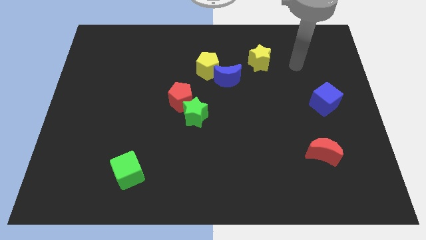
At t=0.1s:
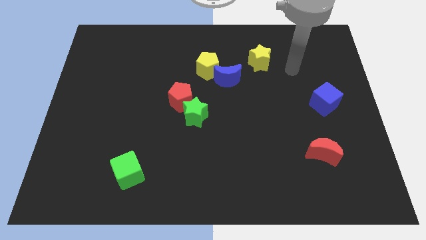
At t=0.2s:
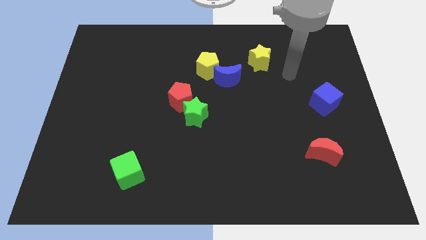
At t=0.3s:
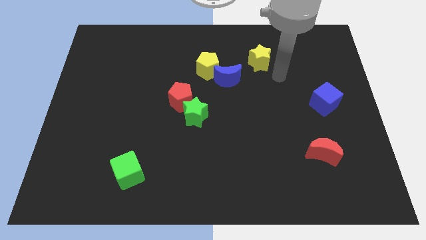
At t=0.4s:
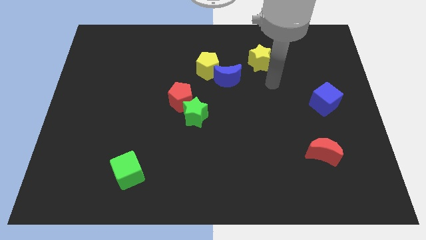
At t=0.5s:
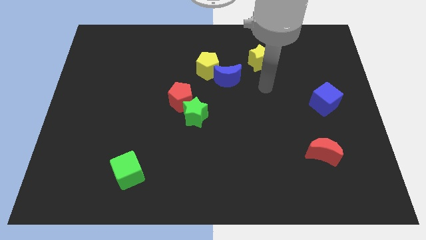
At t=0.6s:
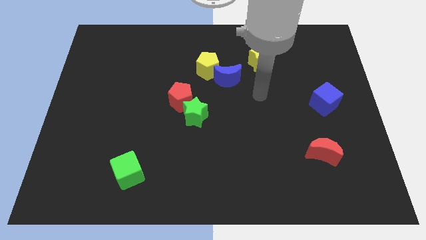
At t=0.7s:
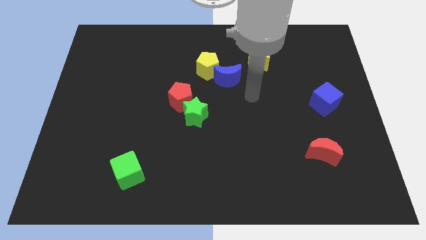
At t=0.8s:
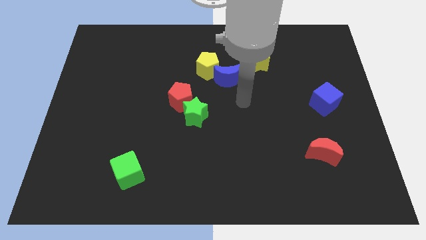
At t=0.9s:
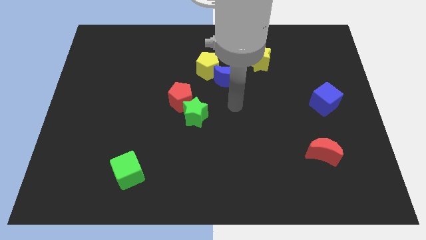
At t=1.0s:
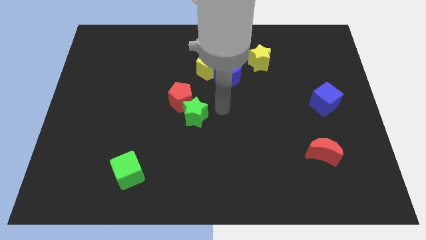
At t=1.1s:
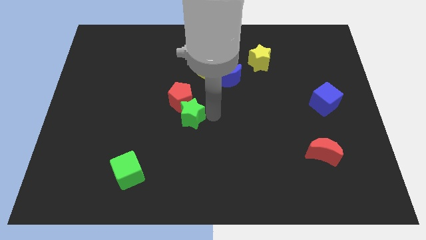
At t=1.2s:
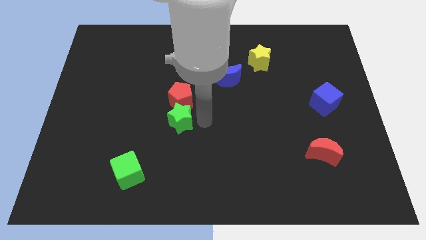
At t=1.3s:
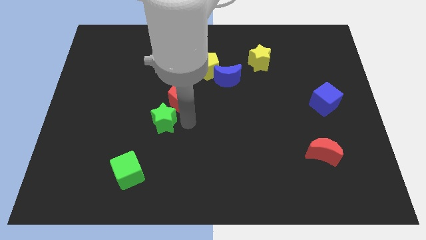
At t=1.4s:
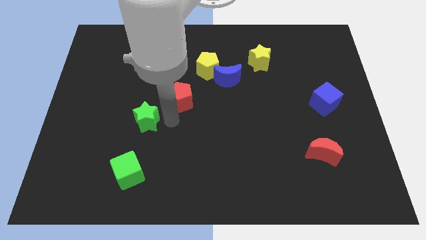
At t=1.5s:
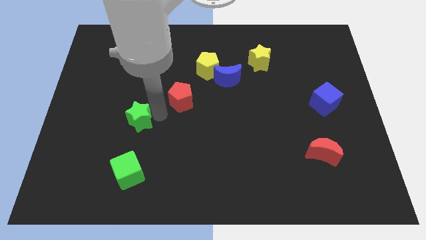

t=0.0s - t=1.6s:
pull the red pentagon apart from the green star

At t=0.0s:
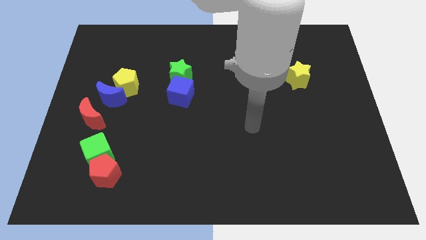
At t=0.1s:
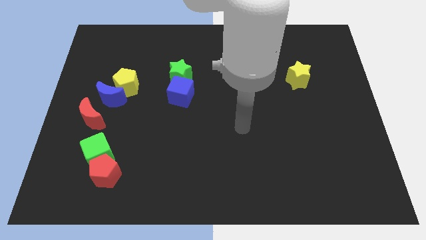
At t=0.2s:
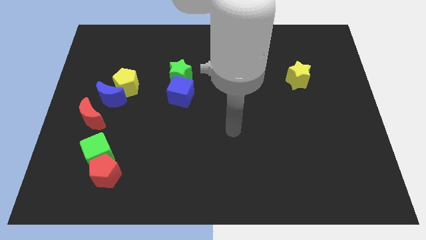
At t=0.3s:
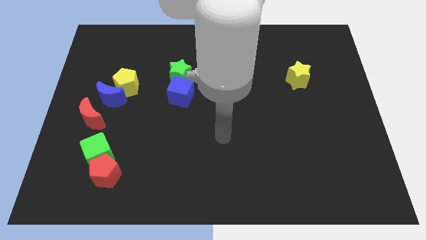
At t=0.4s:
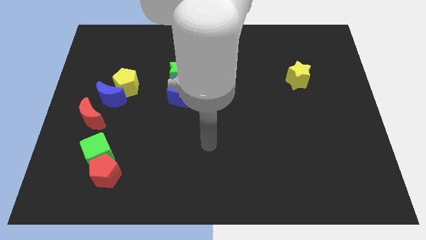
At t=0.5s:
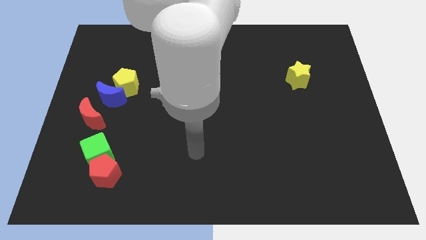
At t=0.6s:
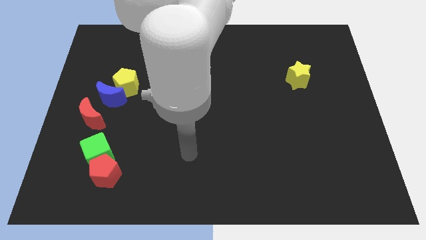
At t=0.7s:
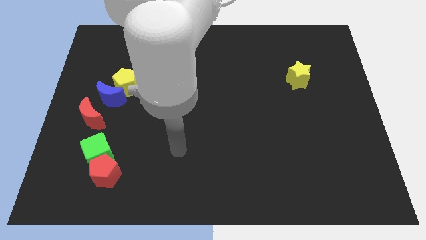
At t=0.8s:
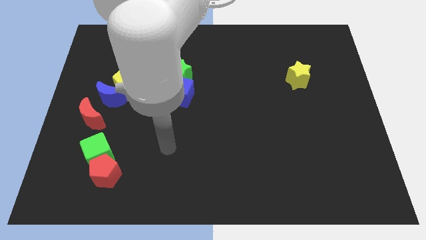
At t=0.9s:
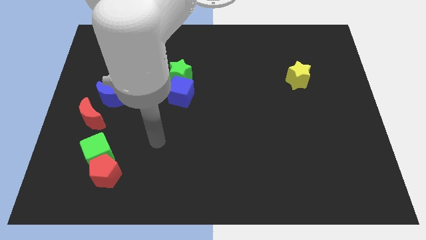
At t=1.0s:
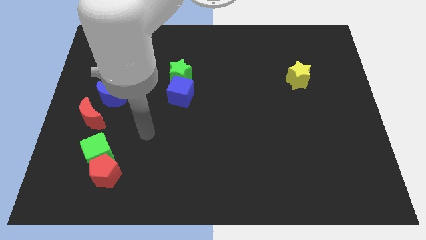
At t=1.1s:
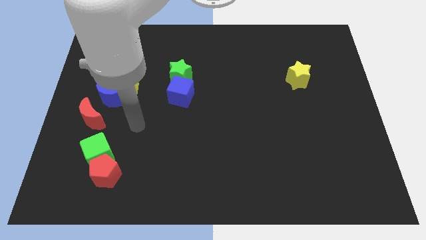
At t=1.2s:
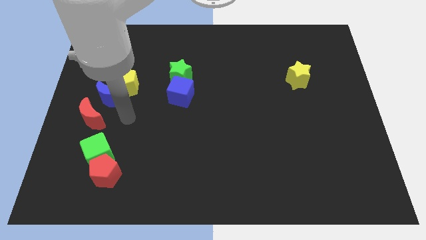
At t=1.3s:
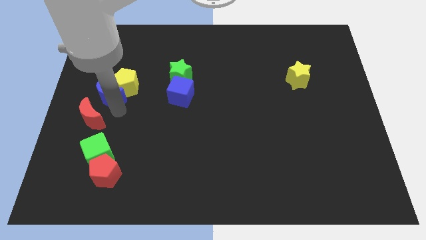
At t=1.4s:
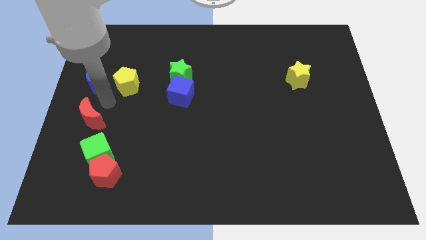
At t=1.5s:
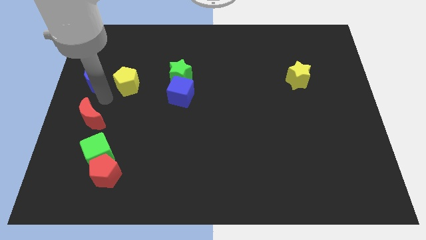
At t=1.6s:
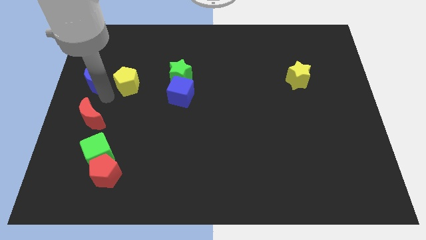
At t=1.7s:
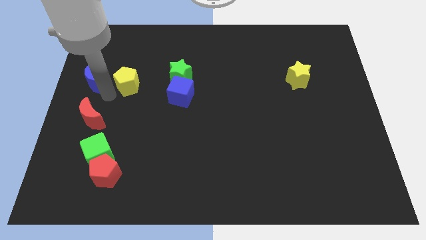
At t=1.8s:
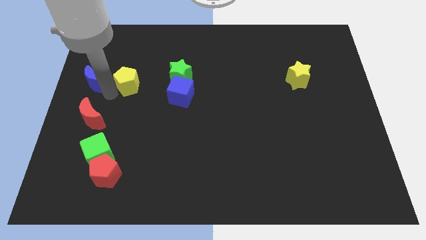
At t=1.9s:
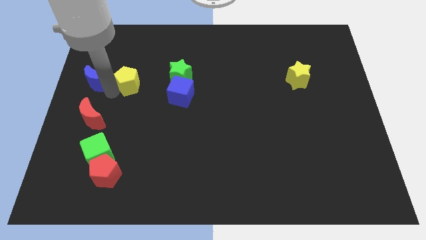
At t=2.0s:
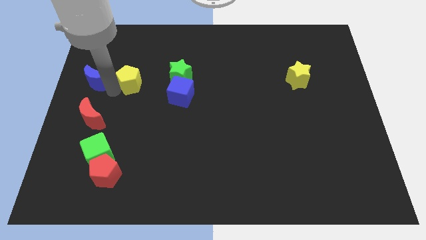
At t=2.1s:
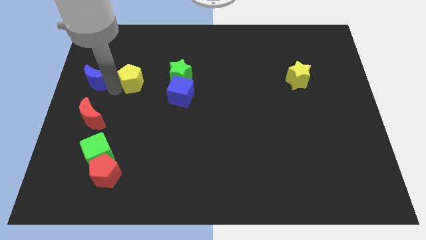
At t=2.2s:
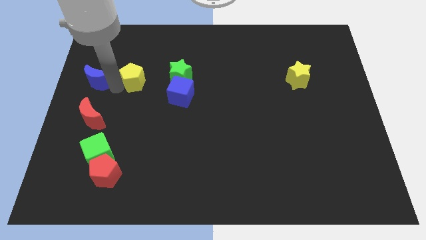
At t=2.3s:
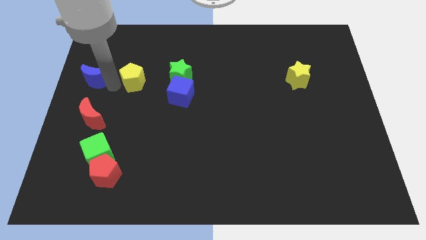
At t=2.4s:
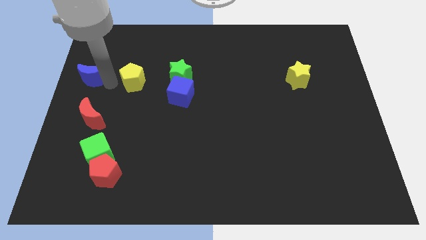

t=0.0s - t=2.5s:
pull the yellow pentagon apart from the blue moon

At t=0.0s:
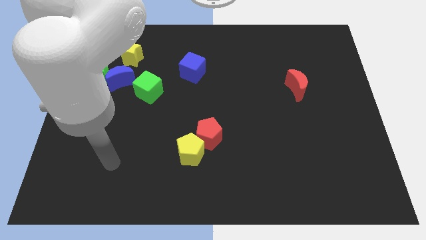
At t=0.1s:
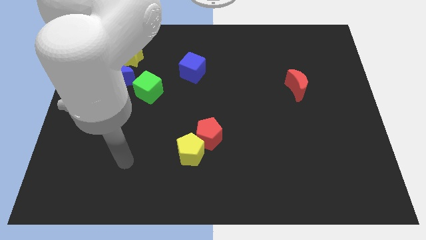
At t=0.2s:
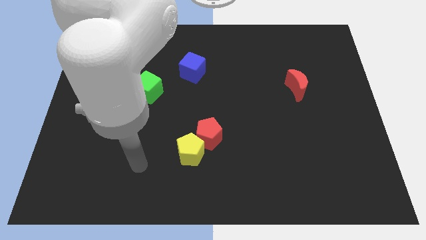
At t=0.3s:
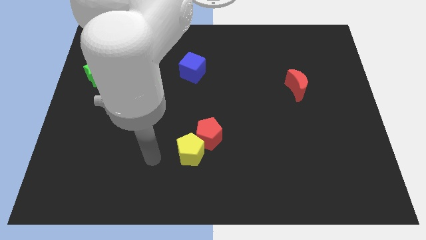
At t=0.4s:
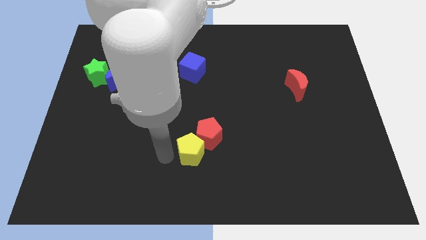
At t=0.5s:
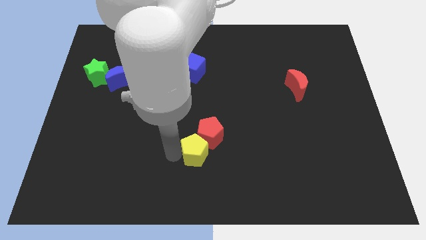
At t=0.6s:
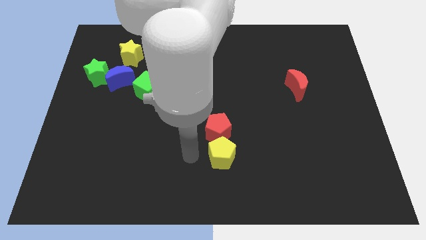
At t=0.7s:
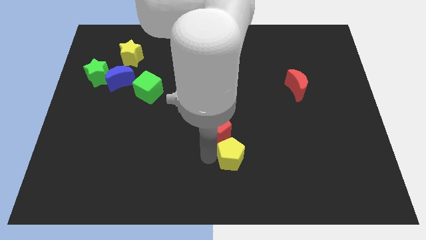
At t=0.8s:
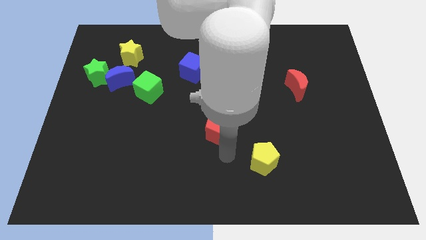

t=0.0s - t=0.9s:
move the red pentagon away from the yellow pentagon

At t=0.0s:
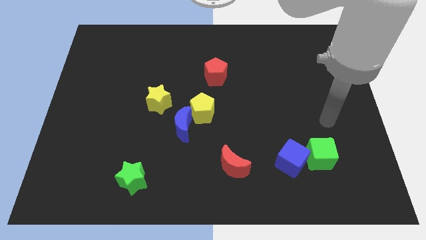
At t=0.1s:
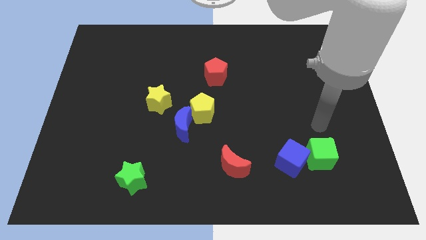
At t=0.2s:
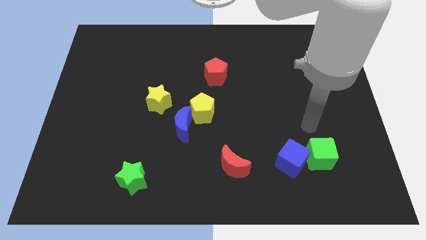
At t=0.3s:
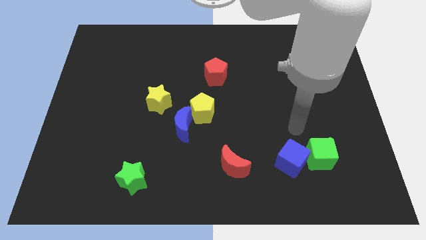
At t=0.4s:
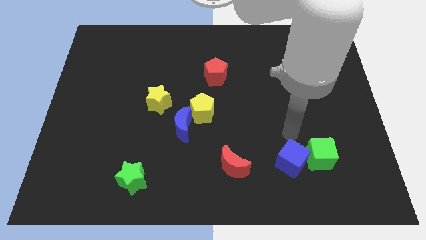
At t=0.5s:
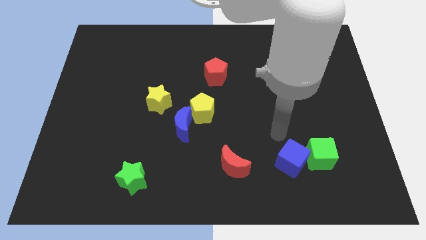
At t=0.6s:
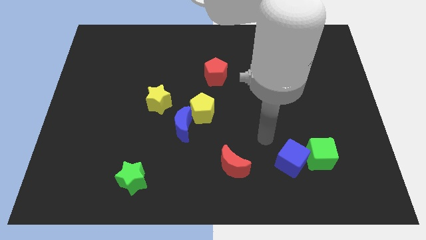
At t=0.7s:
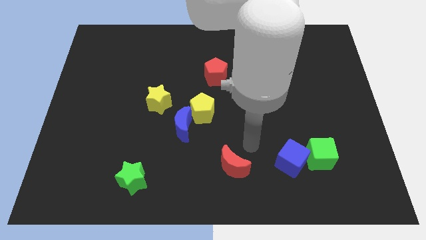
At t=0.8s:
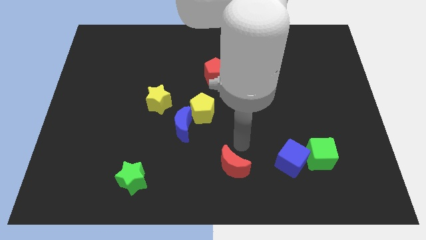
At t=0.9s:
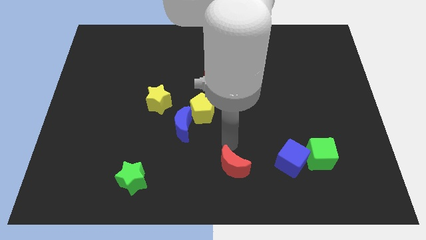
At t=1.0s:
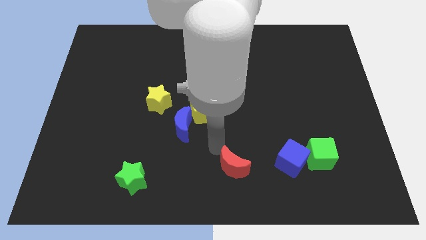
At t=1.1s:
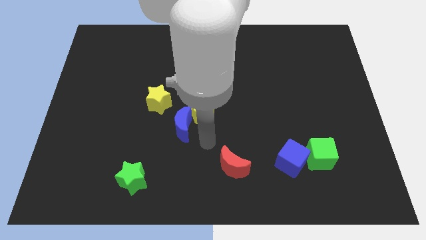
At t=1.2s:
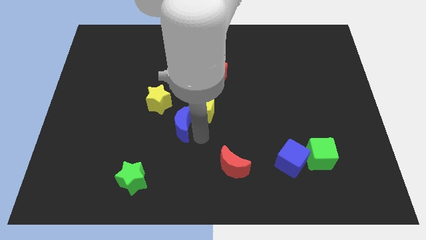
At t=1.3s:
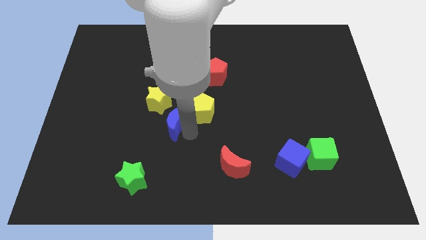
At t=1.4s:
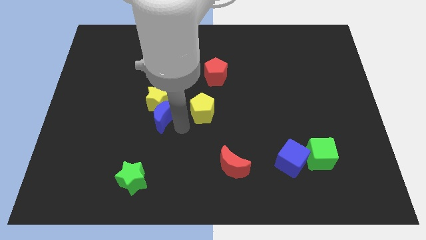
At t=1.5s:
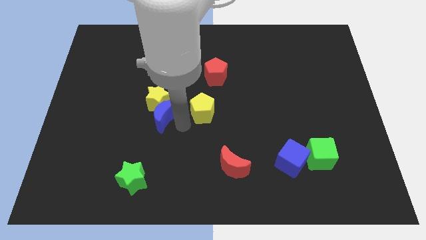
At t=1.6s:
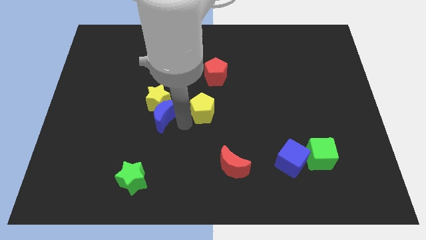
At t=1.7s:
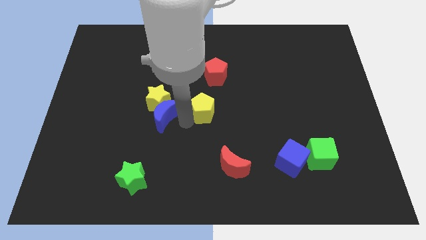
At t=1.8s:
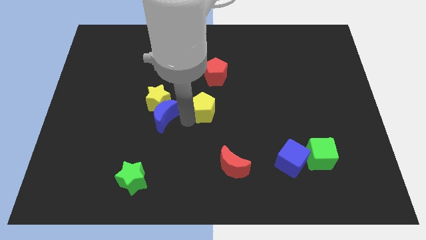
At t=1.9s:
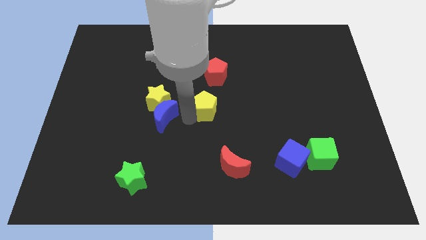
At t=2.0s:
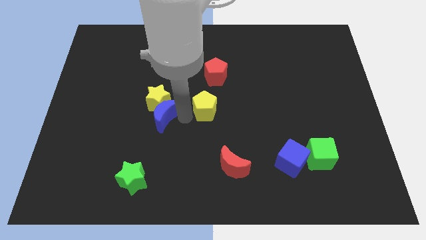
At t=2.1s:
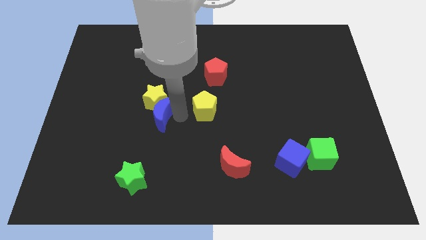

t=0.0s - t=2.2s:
move the yellow pentagon away from the blue moon

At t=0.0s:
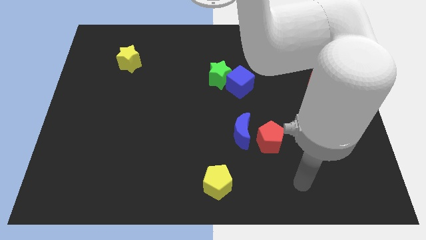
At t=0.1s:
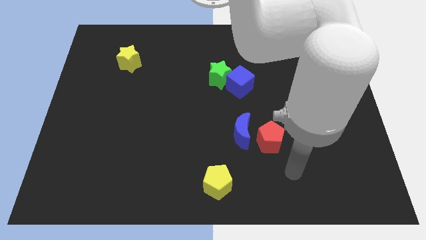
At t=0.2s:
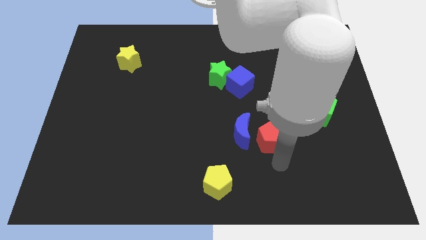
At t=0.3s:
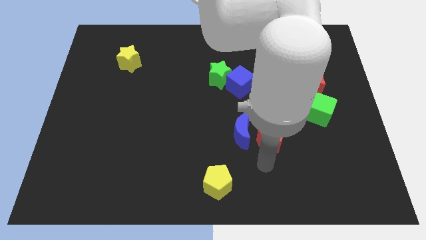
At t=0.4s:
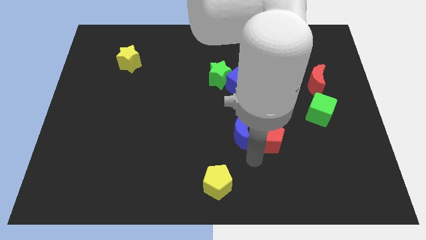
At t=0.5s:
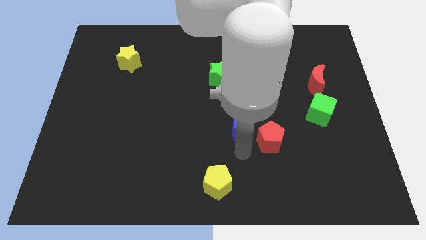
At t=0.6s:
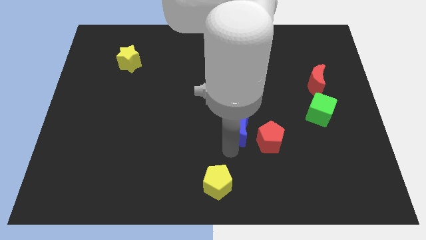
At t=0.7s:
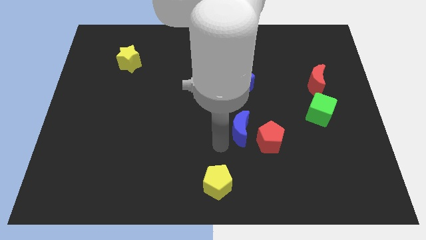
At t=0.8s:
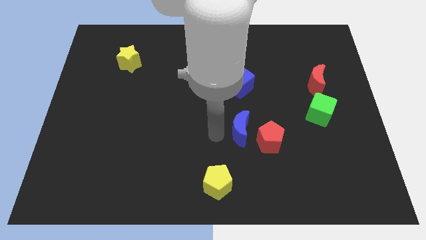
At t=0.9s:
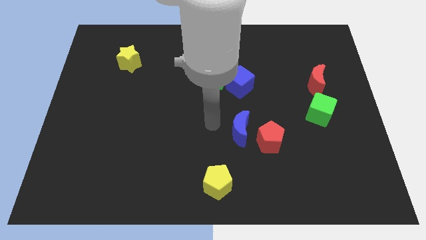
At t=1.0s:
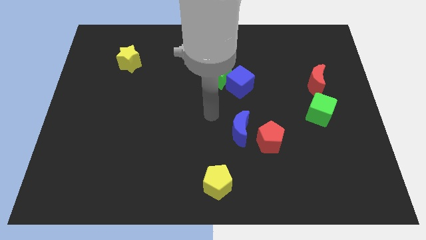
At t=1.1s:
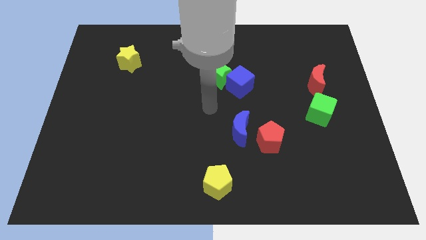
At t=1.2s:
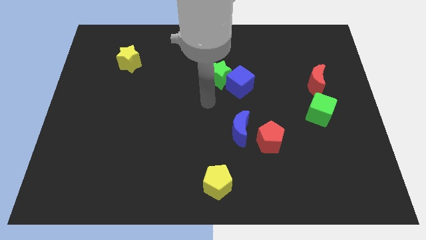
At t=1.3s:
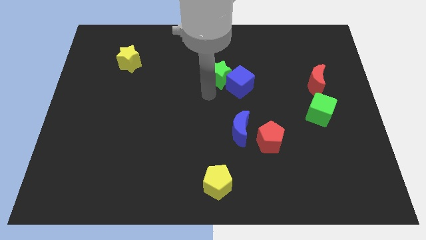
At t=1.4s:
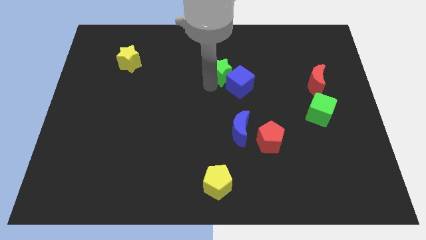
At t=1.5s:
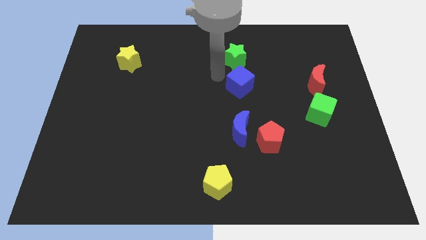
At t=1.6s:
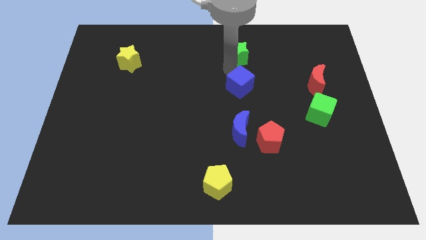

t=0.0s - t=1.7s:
move the blue cube away from the green star

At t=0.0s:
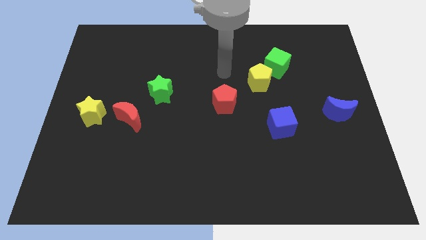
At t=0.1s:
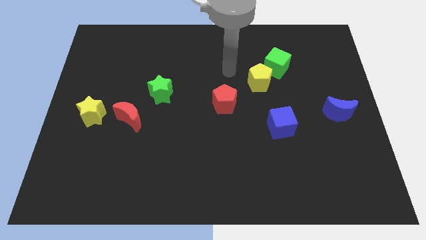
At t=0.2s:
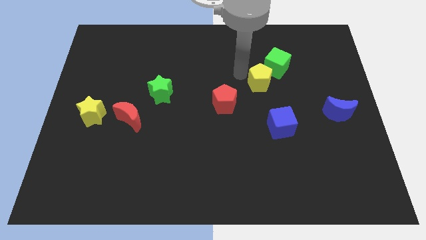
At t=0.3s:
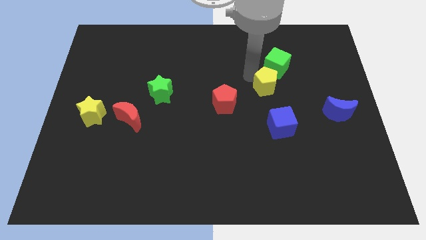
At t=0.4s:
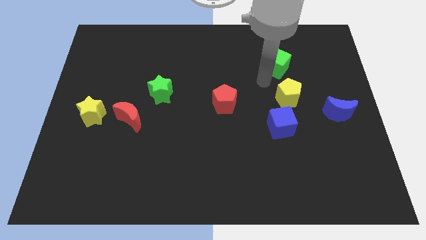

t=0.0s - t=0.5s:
pull the green cube apart from the yellow pentagon
